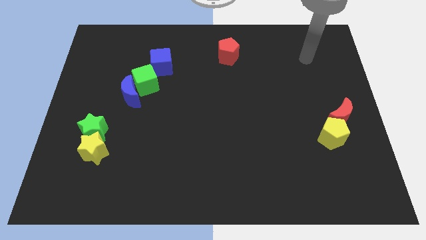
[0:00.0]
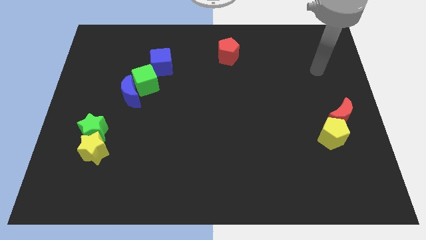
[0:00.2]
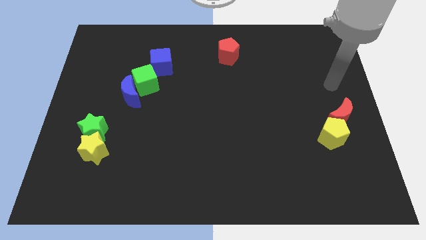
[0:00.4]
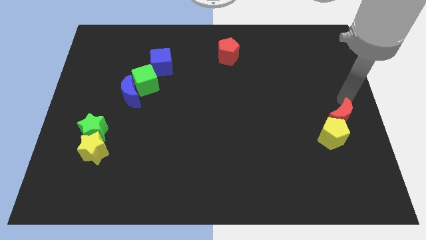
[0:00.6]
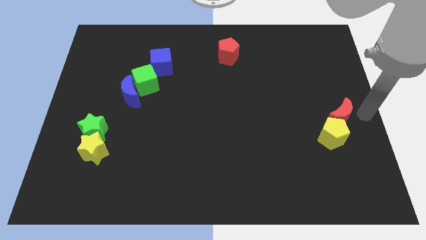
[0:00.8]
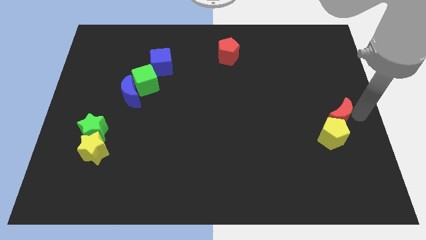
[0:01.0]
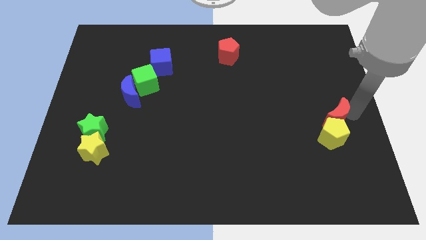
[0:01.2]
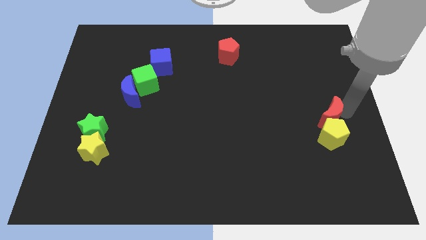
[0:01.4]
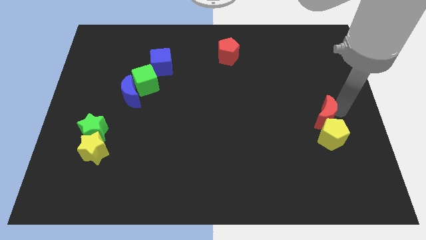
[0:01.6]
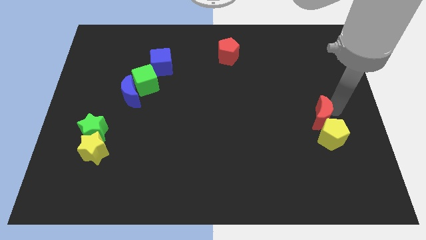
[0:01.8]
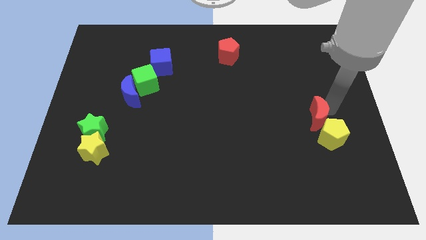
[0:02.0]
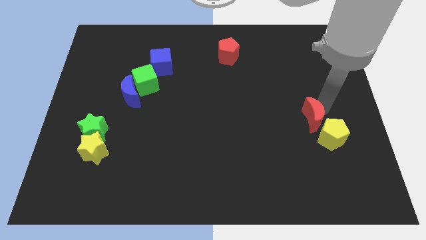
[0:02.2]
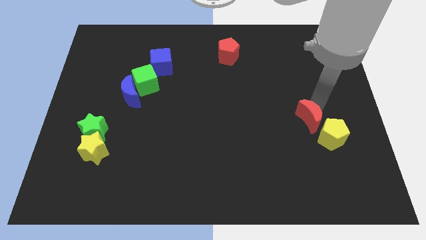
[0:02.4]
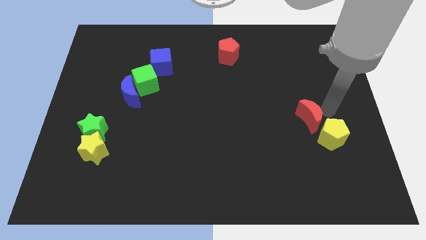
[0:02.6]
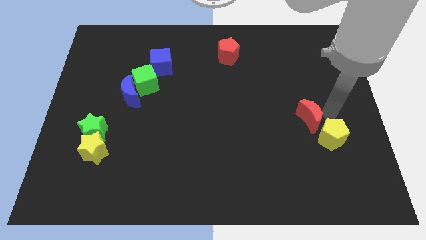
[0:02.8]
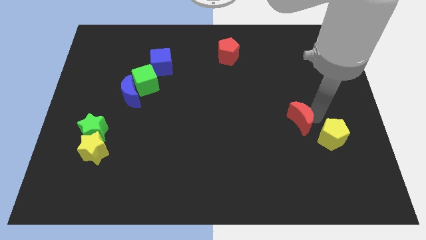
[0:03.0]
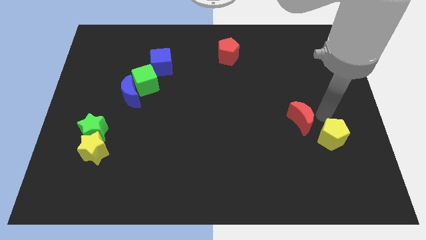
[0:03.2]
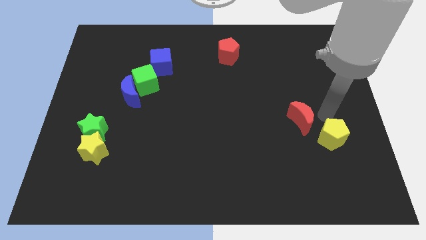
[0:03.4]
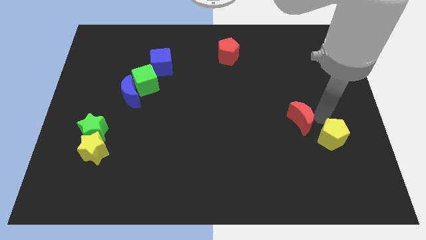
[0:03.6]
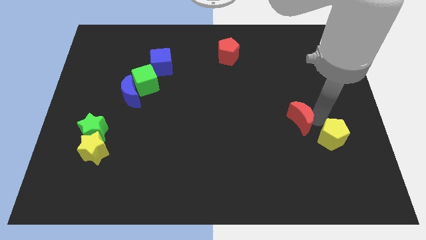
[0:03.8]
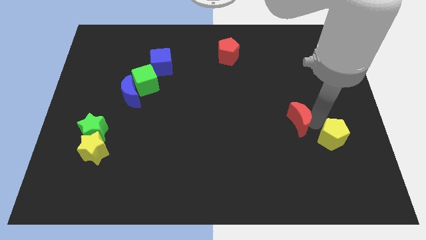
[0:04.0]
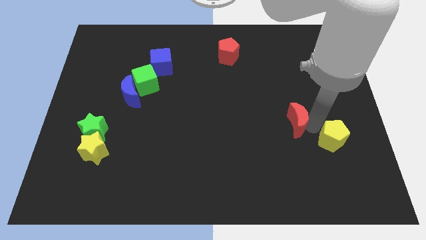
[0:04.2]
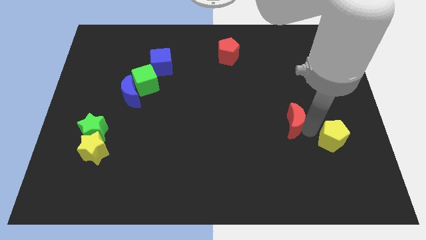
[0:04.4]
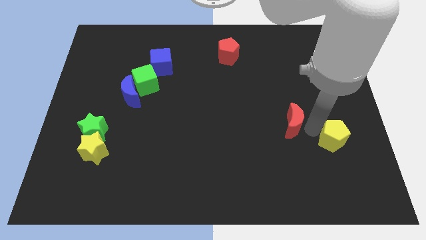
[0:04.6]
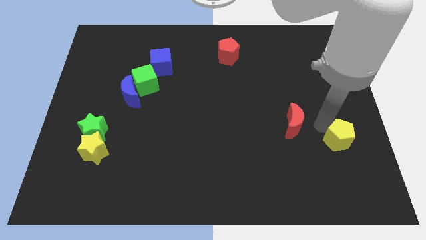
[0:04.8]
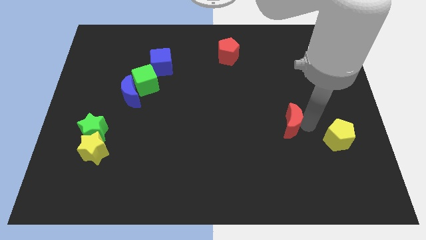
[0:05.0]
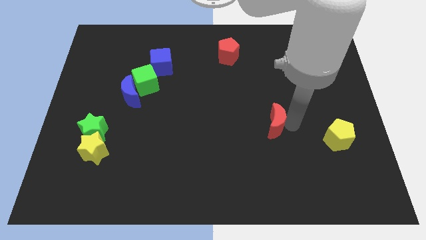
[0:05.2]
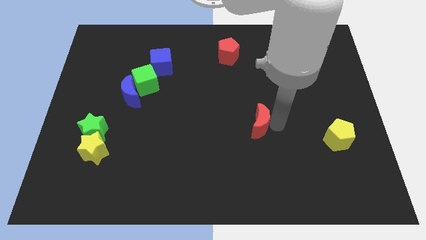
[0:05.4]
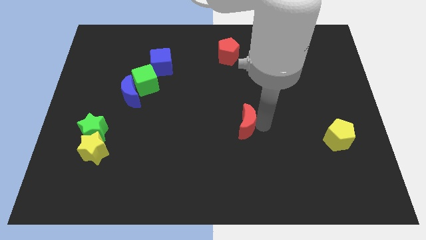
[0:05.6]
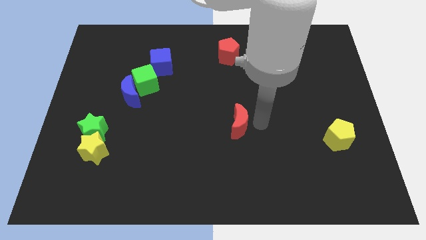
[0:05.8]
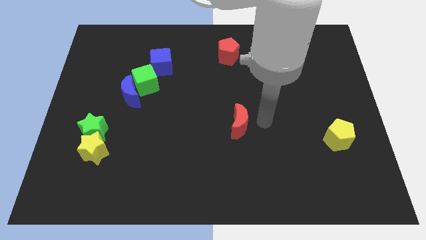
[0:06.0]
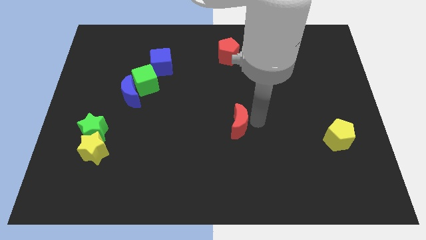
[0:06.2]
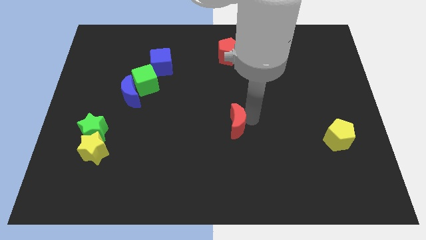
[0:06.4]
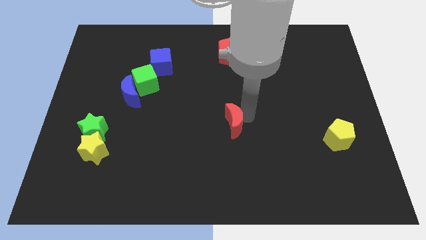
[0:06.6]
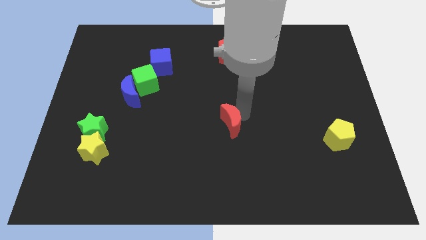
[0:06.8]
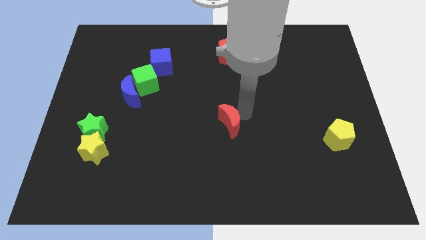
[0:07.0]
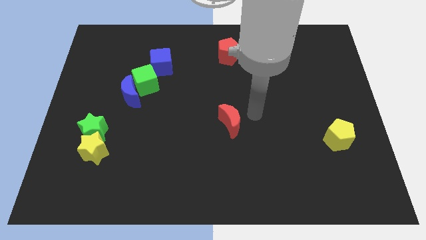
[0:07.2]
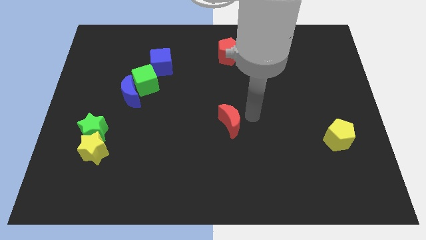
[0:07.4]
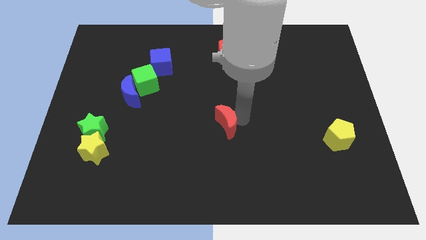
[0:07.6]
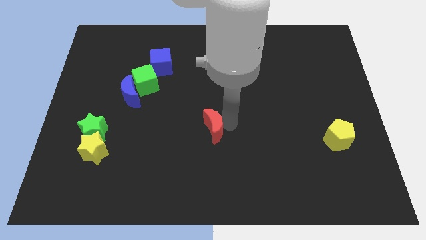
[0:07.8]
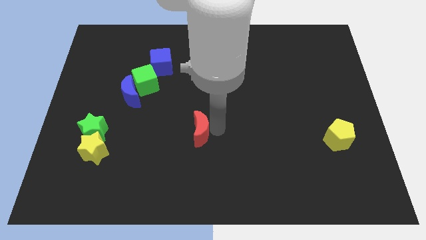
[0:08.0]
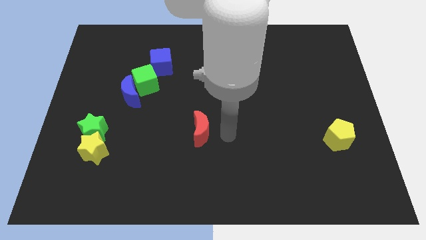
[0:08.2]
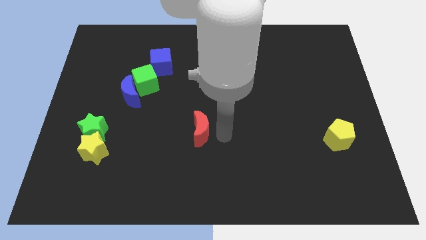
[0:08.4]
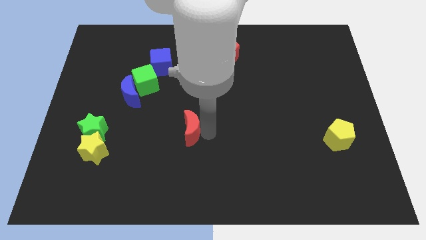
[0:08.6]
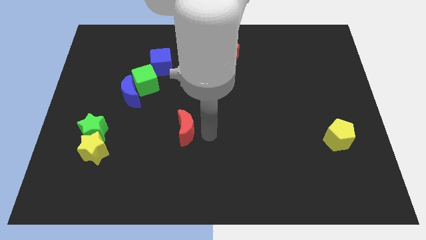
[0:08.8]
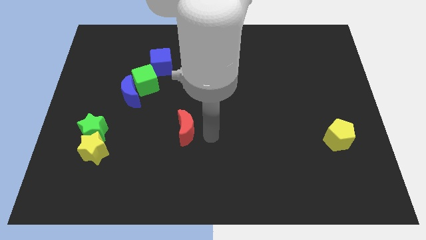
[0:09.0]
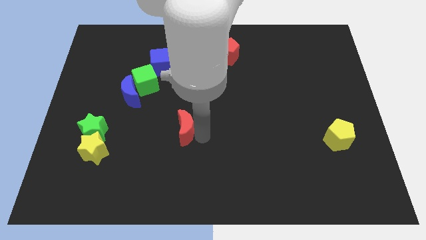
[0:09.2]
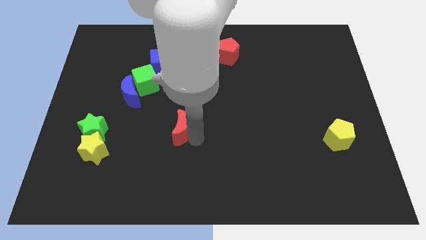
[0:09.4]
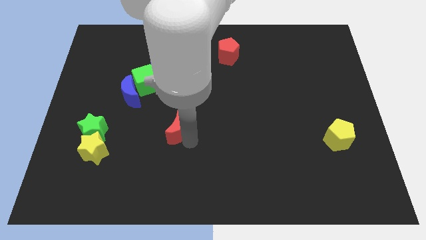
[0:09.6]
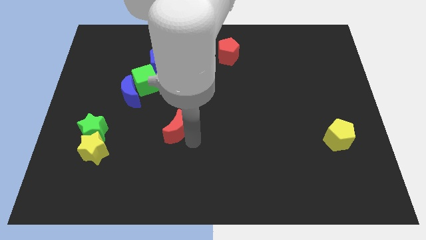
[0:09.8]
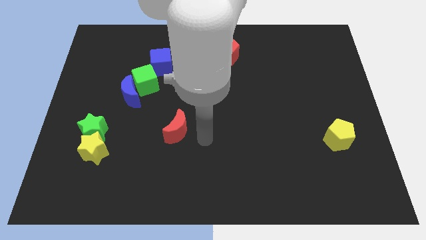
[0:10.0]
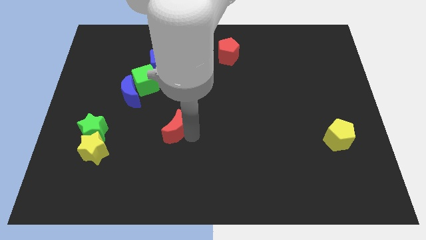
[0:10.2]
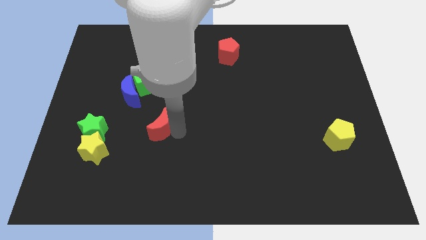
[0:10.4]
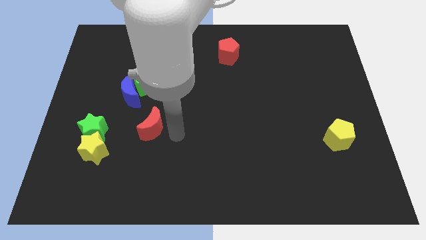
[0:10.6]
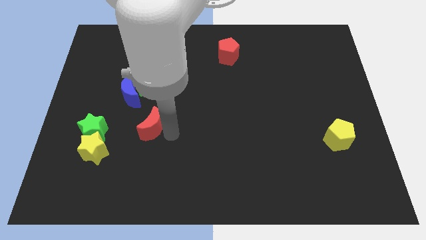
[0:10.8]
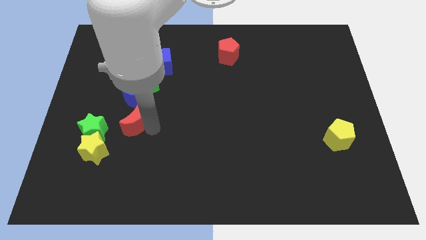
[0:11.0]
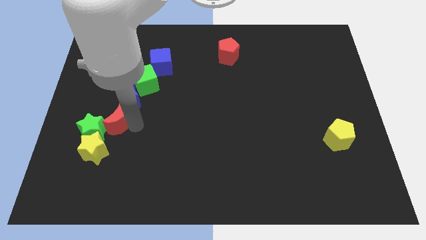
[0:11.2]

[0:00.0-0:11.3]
slide the red moon diagonally down and to the left of the blue moon

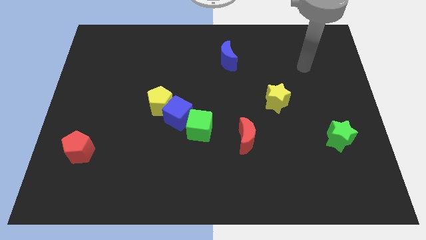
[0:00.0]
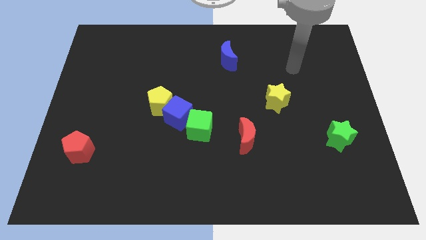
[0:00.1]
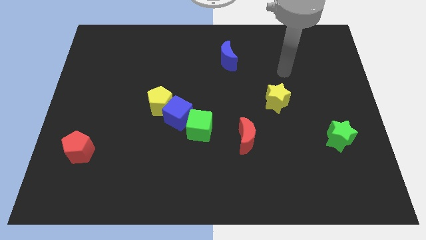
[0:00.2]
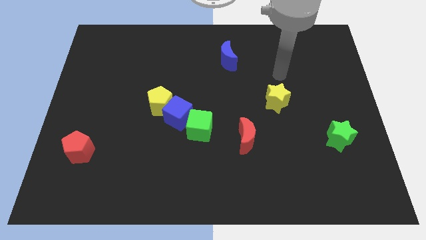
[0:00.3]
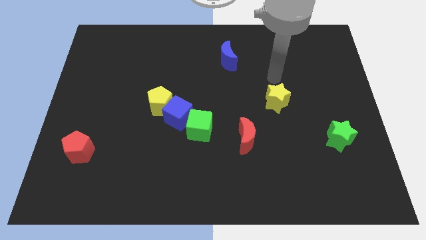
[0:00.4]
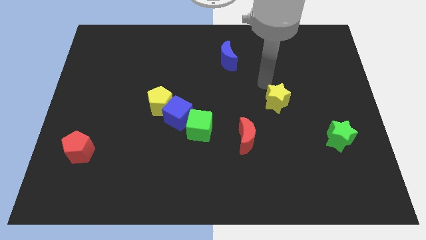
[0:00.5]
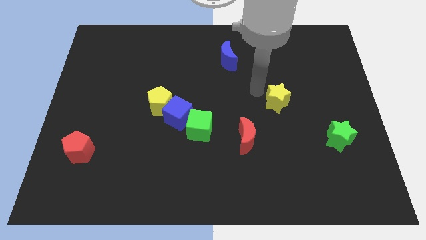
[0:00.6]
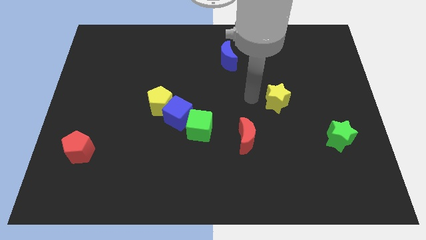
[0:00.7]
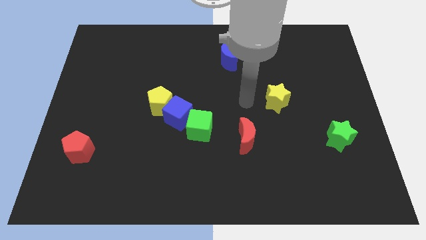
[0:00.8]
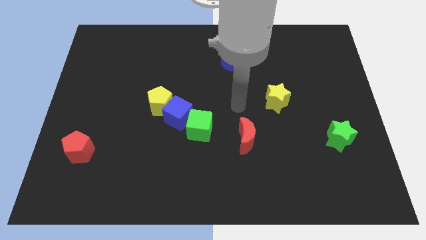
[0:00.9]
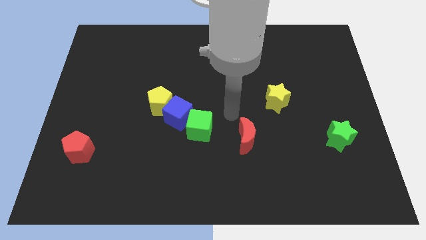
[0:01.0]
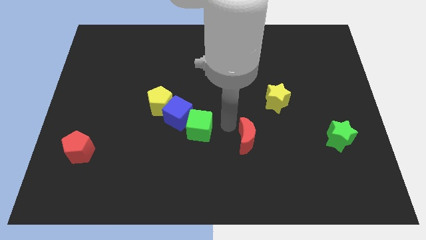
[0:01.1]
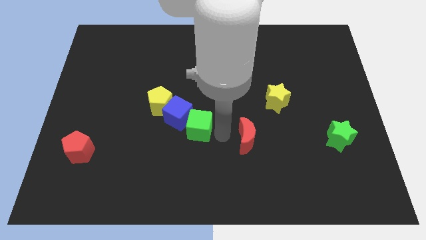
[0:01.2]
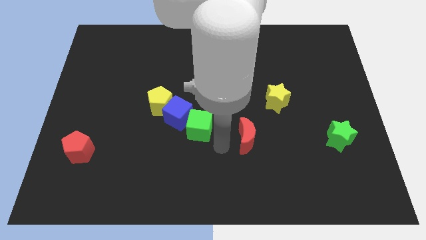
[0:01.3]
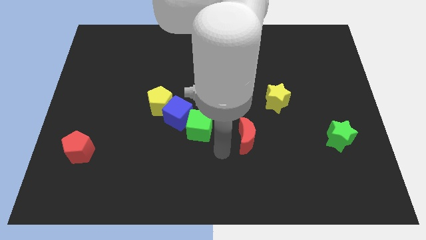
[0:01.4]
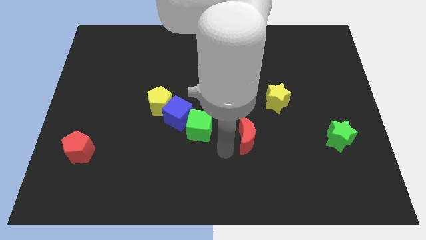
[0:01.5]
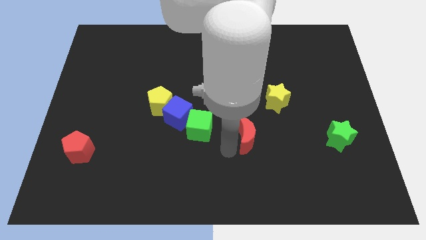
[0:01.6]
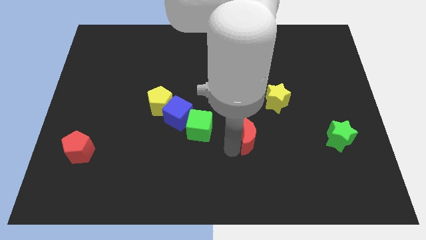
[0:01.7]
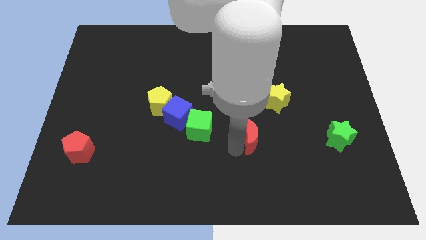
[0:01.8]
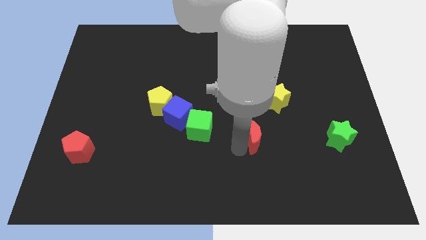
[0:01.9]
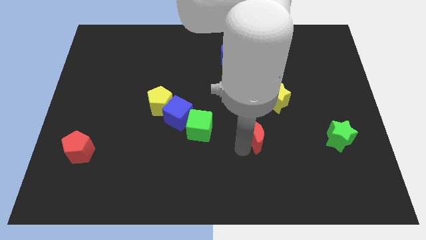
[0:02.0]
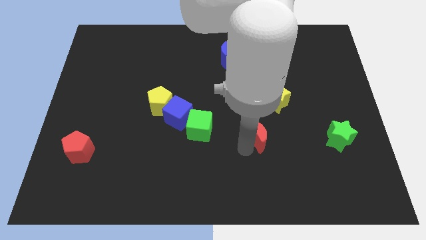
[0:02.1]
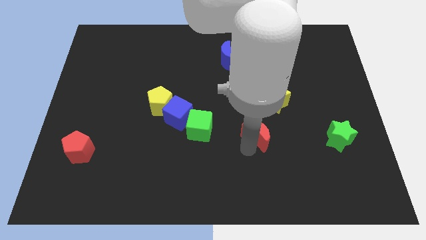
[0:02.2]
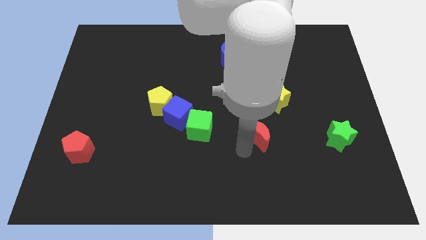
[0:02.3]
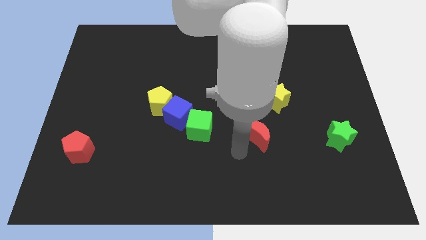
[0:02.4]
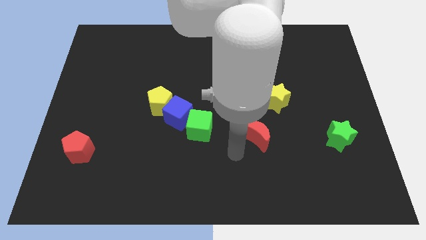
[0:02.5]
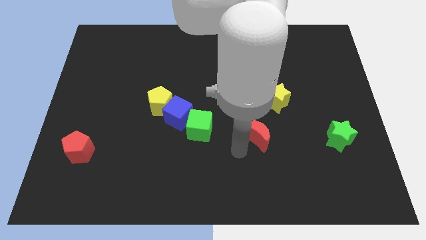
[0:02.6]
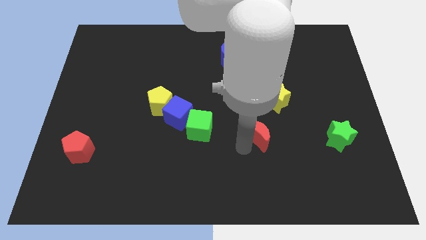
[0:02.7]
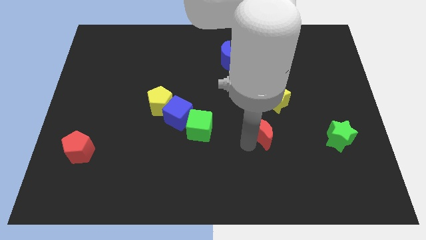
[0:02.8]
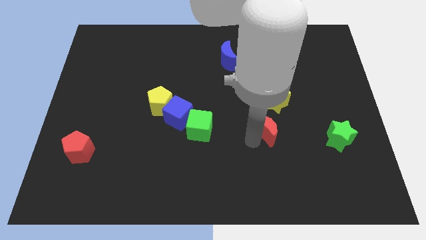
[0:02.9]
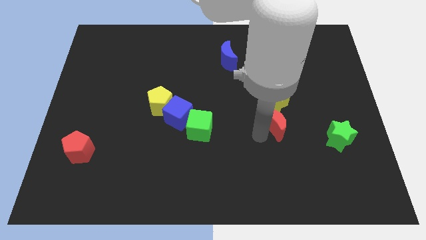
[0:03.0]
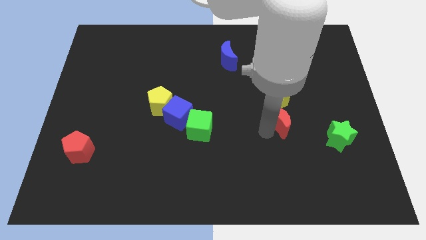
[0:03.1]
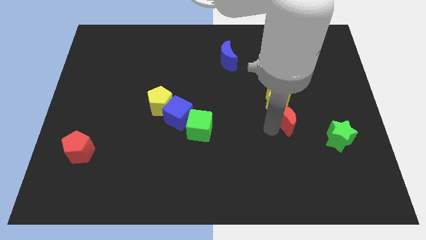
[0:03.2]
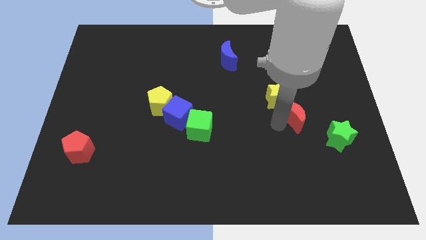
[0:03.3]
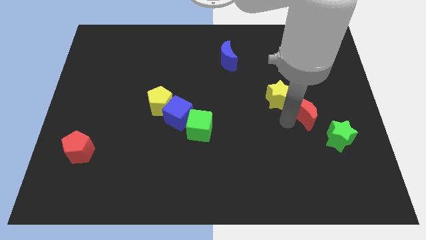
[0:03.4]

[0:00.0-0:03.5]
move the red moon to the right side of the yellow star
